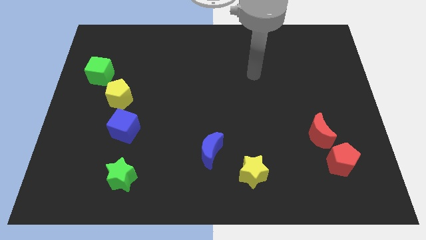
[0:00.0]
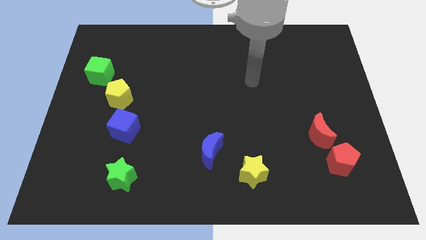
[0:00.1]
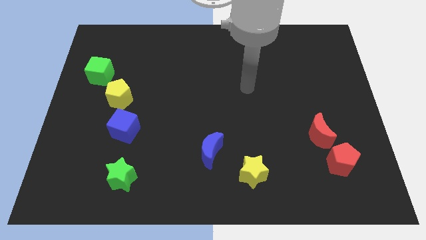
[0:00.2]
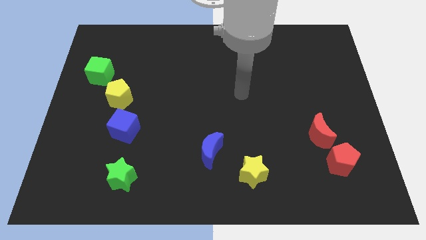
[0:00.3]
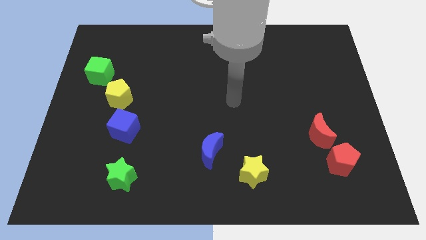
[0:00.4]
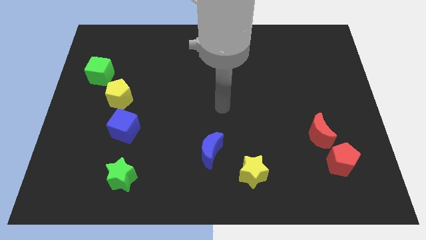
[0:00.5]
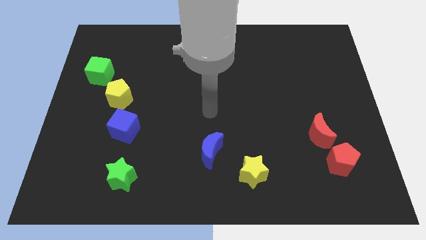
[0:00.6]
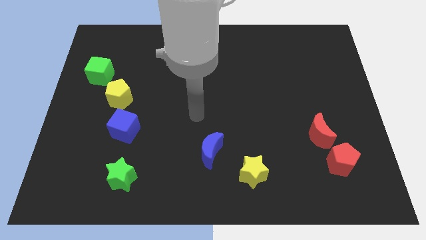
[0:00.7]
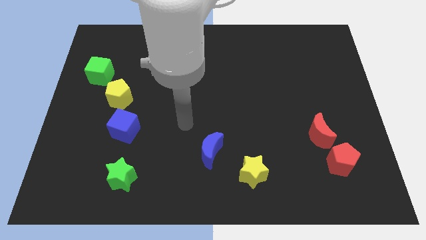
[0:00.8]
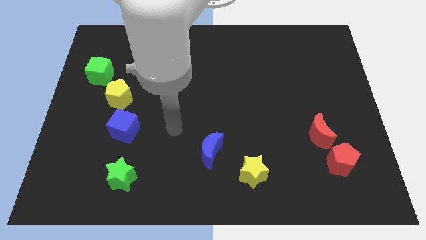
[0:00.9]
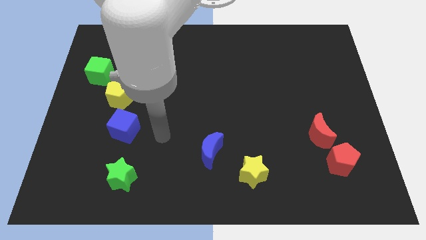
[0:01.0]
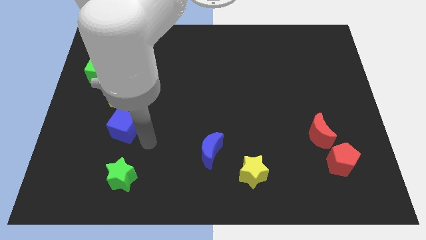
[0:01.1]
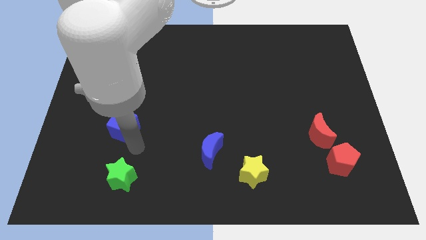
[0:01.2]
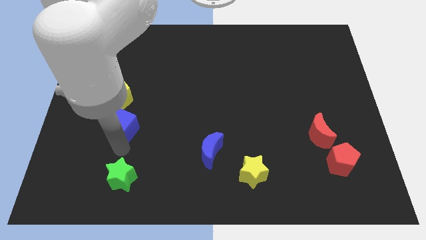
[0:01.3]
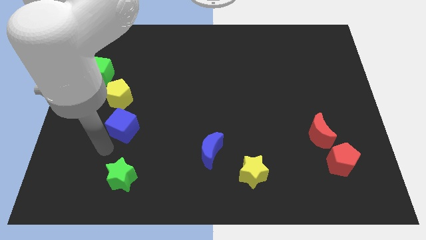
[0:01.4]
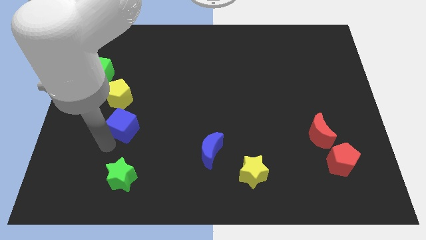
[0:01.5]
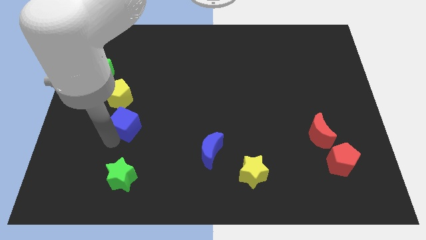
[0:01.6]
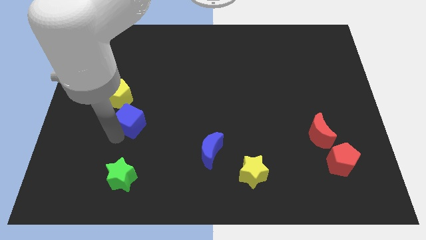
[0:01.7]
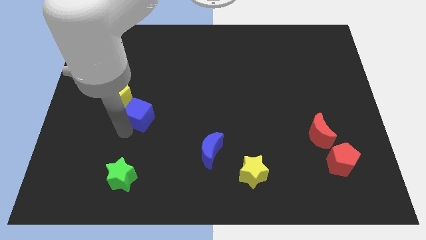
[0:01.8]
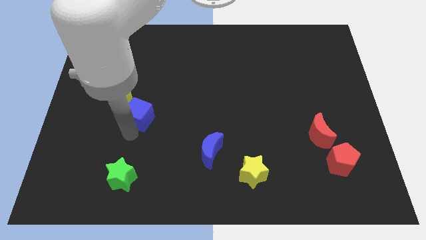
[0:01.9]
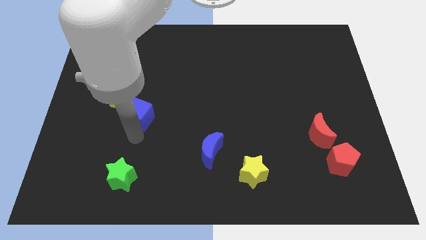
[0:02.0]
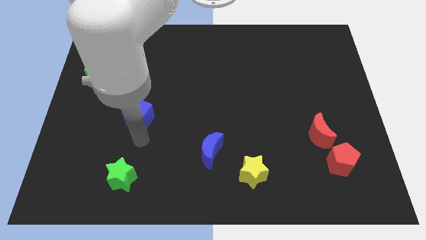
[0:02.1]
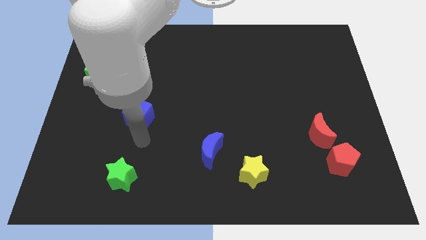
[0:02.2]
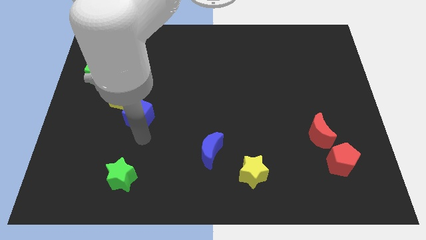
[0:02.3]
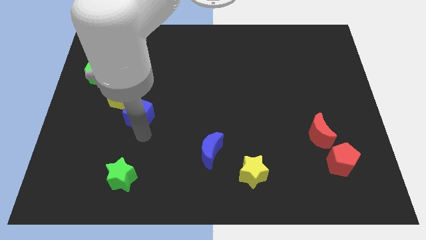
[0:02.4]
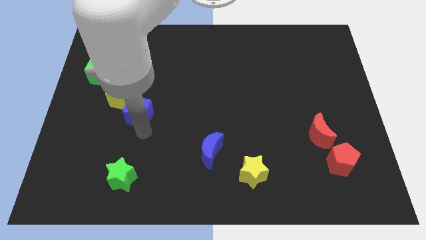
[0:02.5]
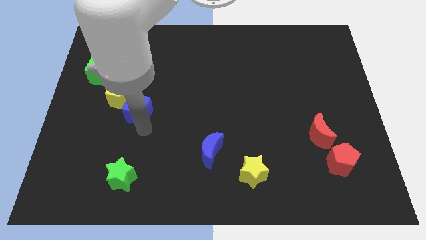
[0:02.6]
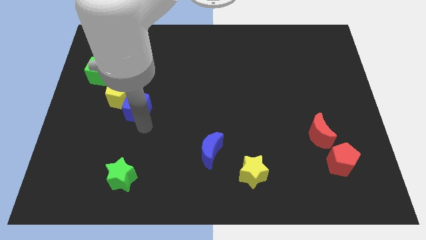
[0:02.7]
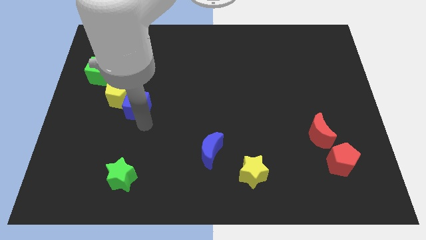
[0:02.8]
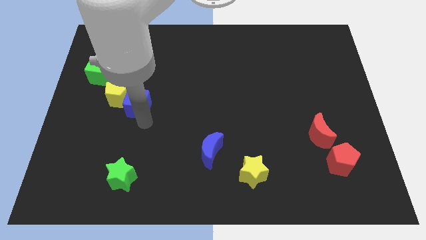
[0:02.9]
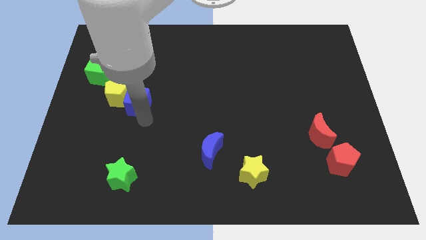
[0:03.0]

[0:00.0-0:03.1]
push the blue cube a little bit upwards

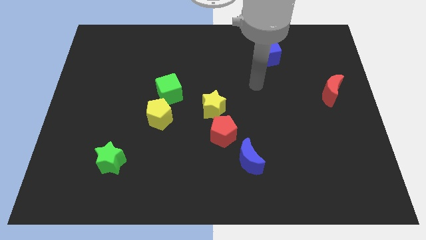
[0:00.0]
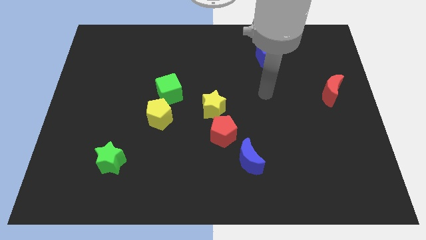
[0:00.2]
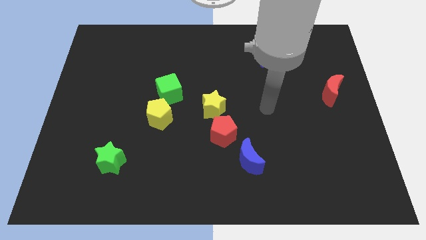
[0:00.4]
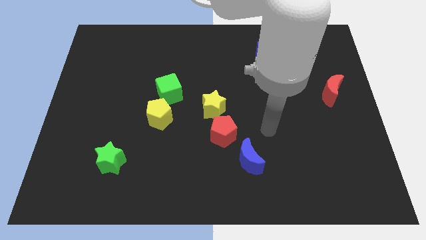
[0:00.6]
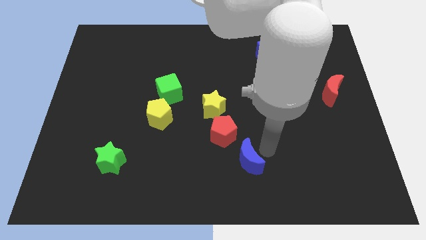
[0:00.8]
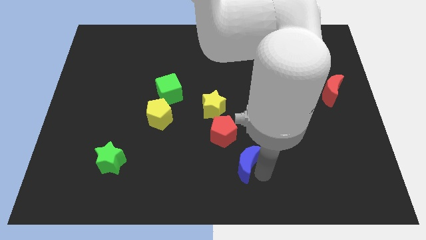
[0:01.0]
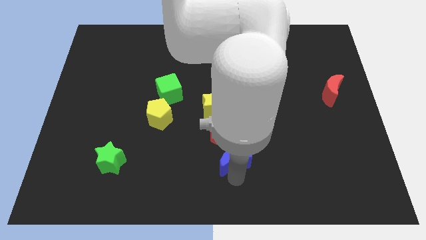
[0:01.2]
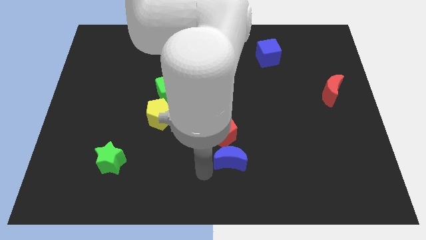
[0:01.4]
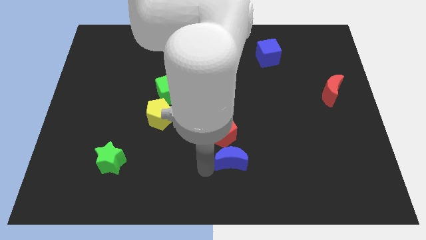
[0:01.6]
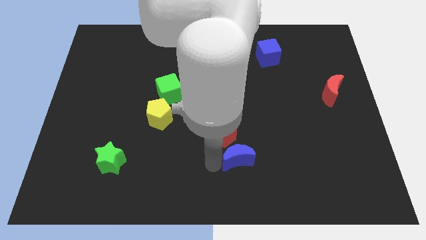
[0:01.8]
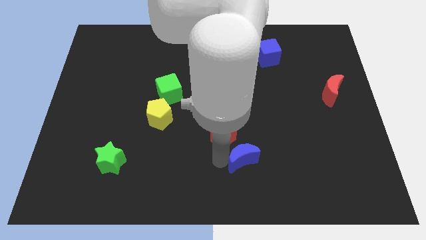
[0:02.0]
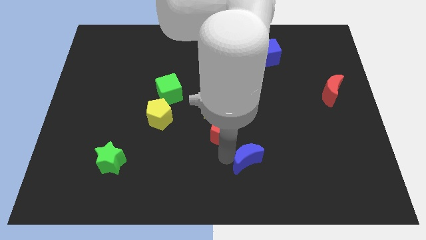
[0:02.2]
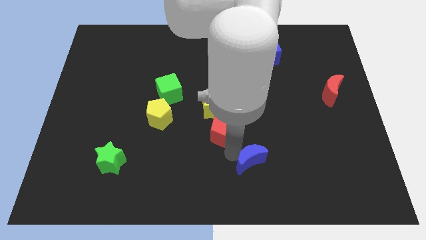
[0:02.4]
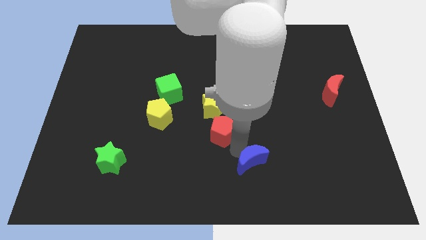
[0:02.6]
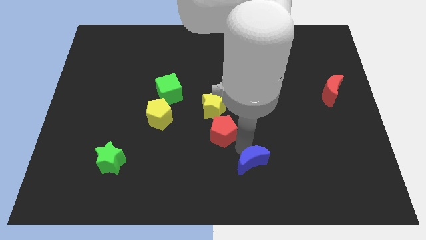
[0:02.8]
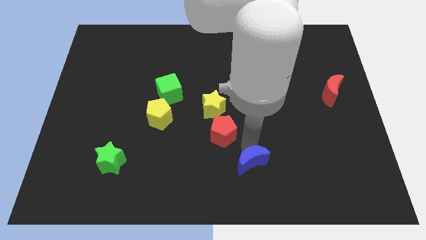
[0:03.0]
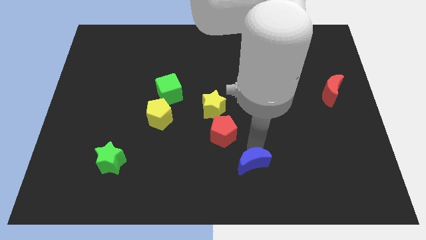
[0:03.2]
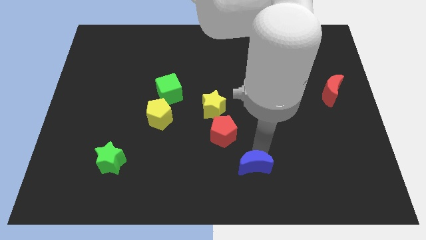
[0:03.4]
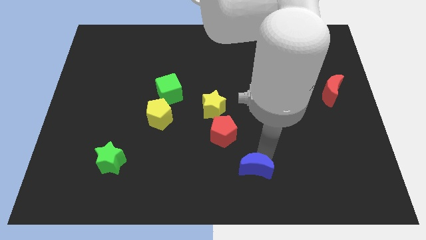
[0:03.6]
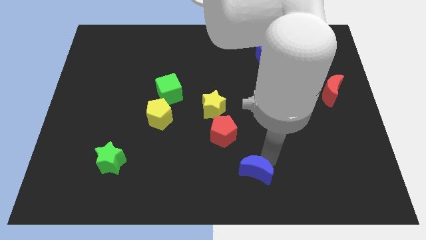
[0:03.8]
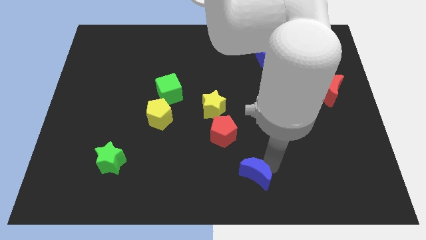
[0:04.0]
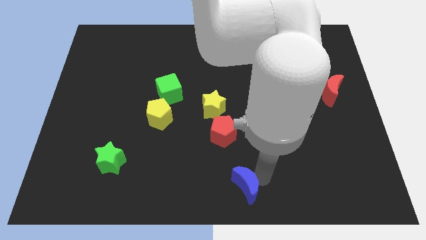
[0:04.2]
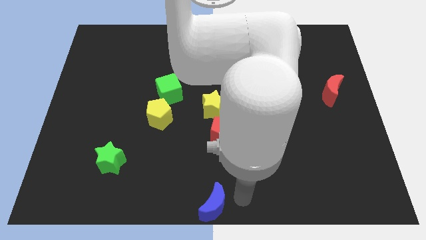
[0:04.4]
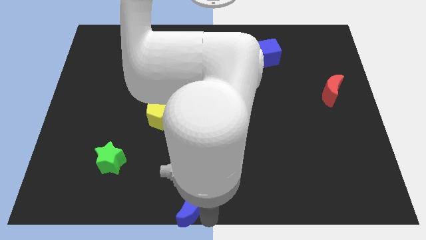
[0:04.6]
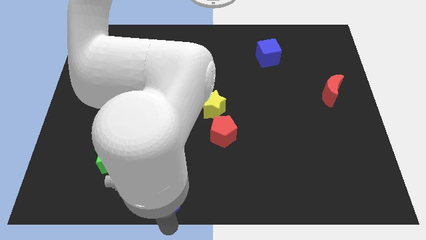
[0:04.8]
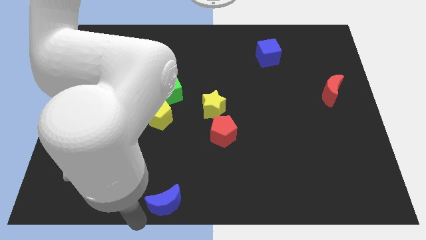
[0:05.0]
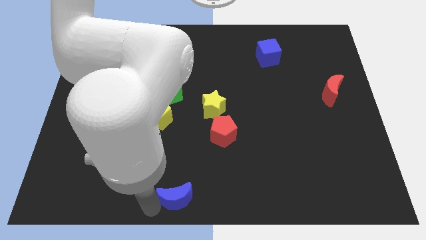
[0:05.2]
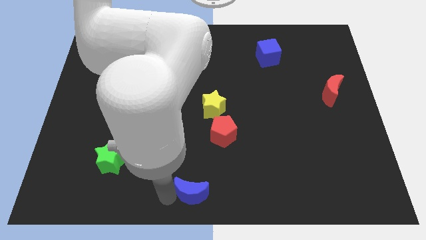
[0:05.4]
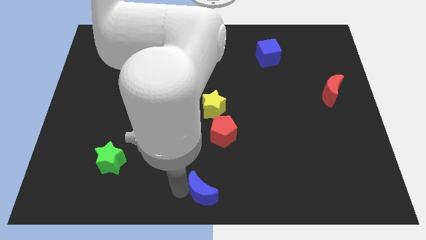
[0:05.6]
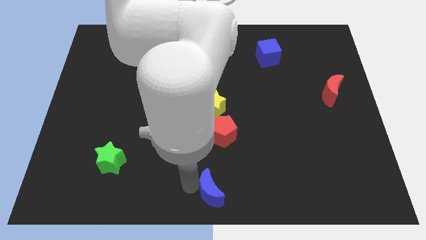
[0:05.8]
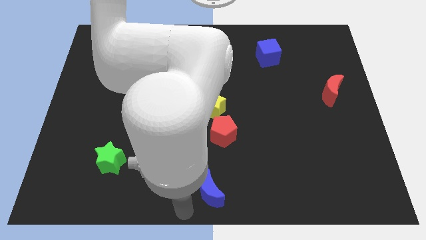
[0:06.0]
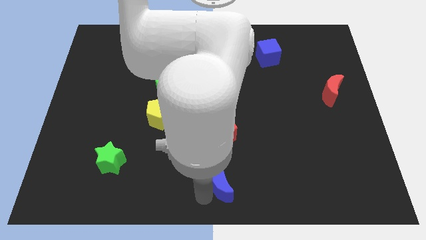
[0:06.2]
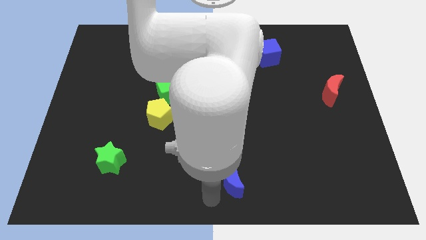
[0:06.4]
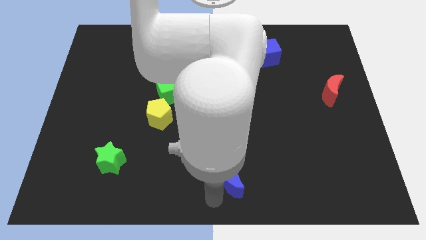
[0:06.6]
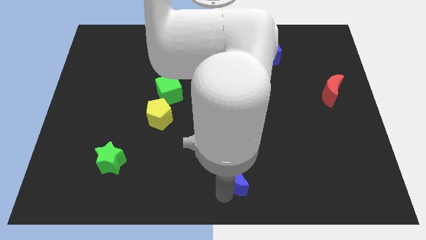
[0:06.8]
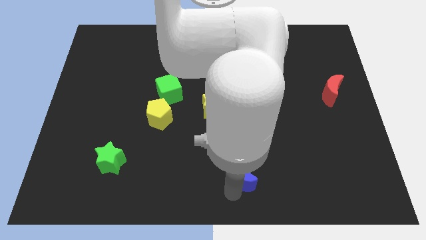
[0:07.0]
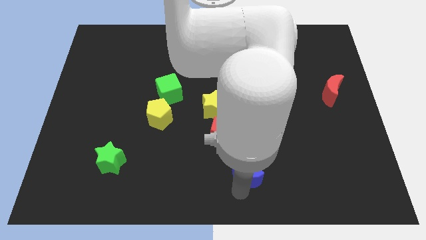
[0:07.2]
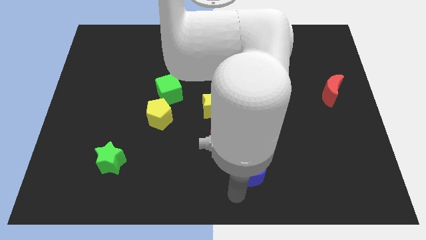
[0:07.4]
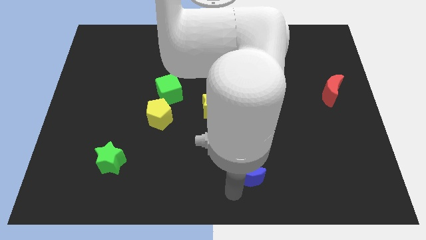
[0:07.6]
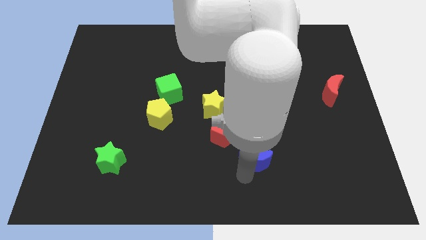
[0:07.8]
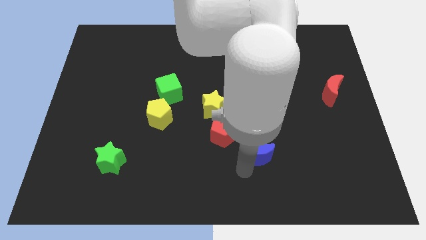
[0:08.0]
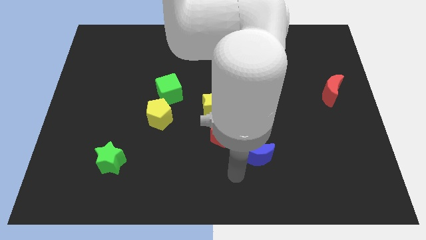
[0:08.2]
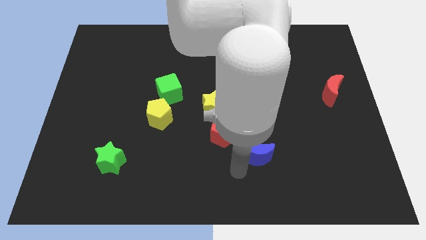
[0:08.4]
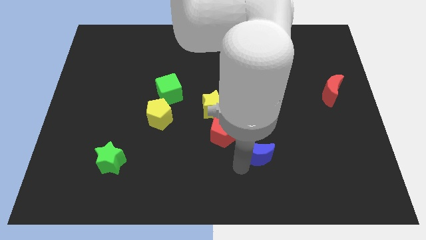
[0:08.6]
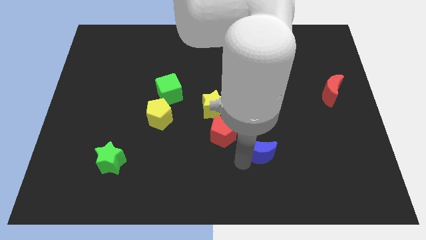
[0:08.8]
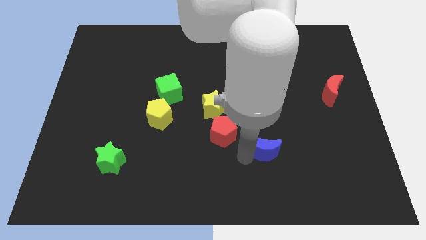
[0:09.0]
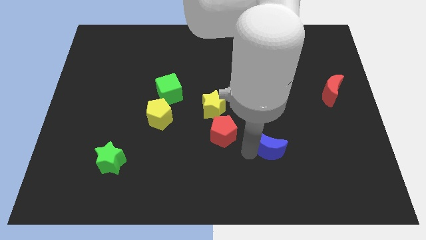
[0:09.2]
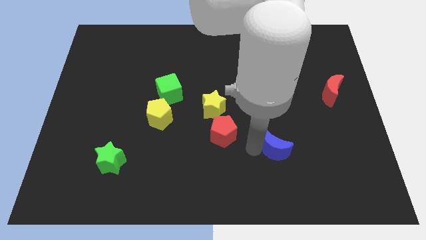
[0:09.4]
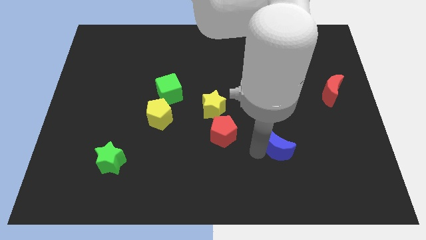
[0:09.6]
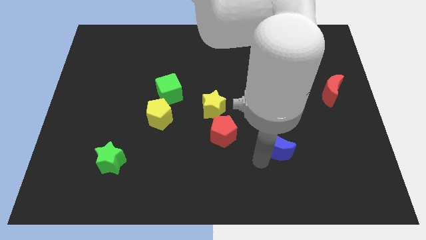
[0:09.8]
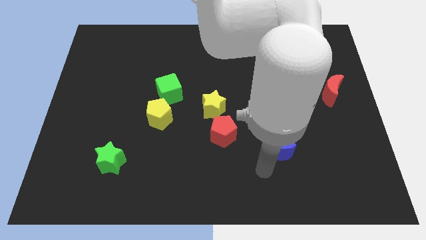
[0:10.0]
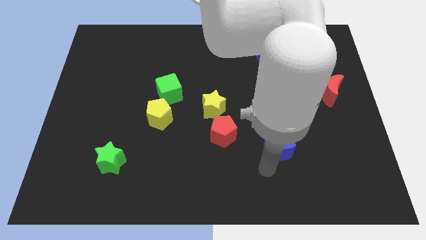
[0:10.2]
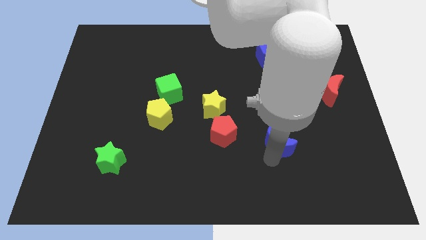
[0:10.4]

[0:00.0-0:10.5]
slide the blue moon up and then to the right a little bit
